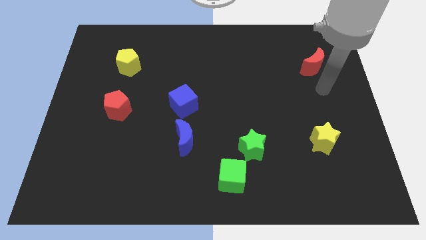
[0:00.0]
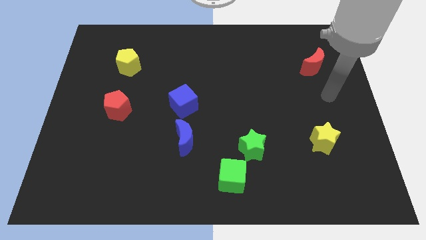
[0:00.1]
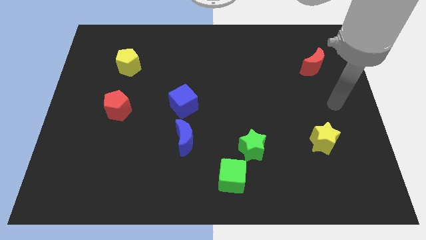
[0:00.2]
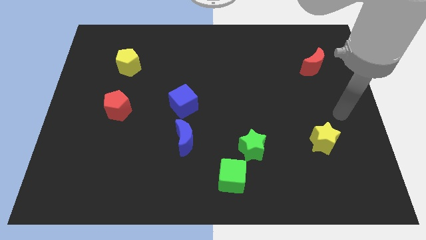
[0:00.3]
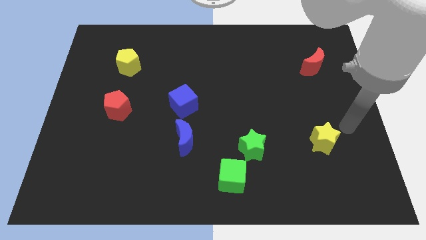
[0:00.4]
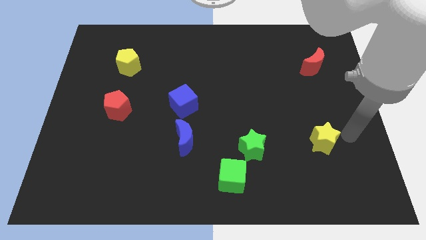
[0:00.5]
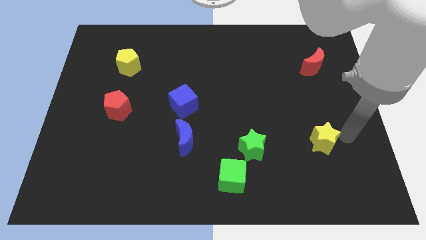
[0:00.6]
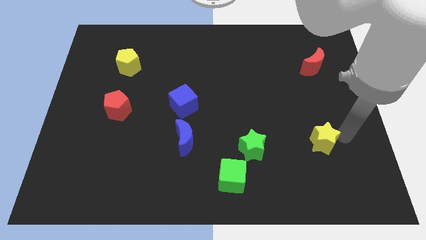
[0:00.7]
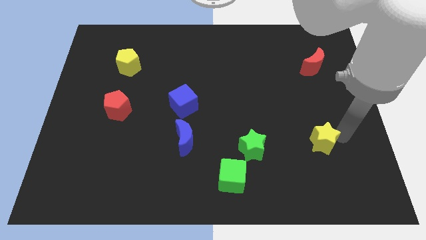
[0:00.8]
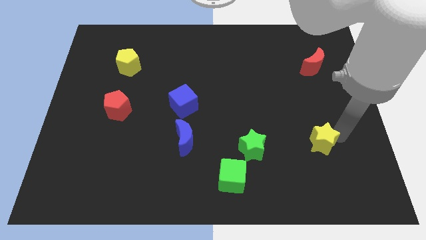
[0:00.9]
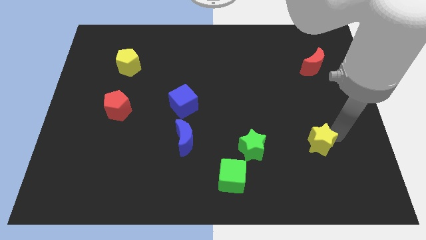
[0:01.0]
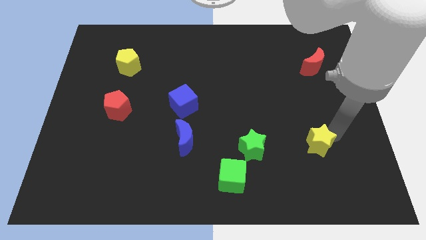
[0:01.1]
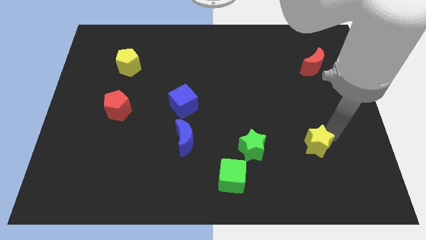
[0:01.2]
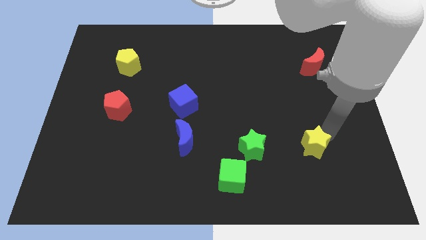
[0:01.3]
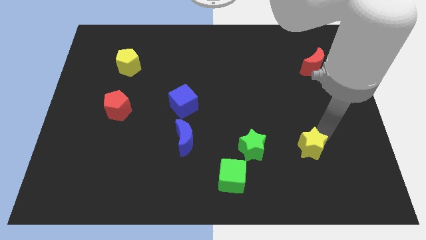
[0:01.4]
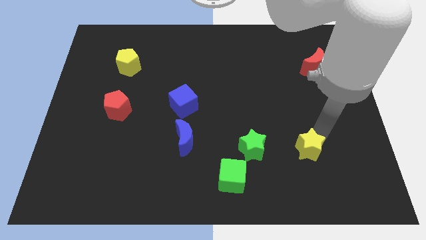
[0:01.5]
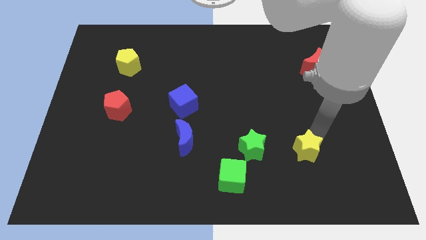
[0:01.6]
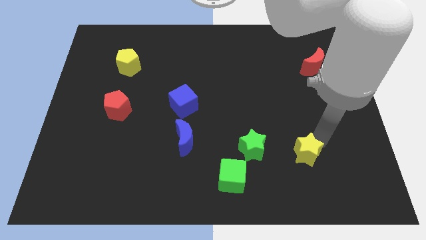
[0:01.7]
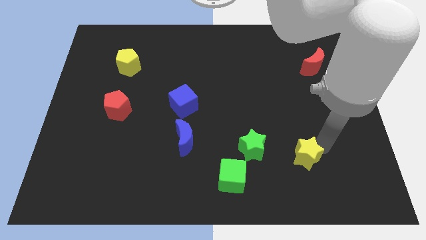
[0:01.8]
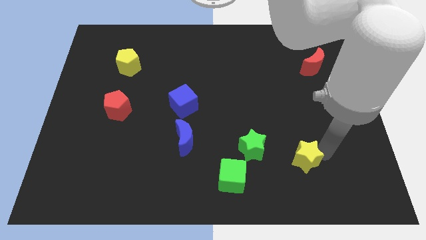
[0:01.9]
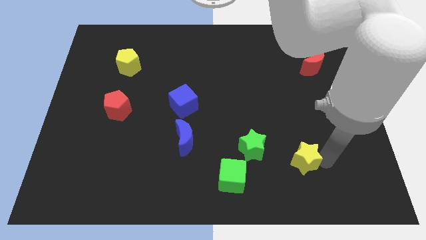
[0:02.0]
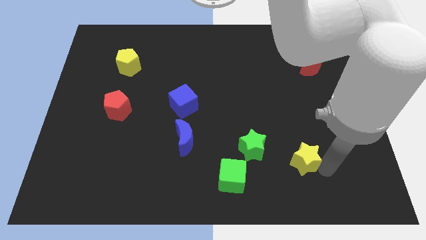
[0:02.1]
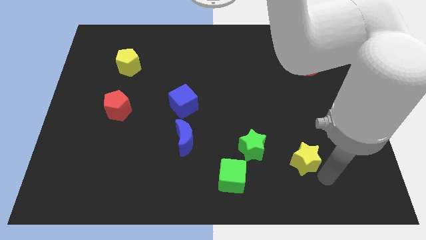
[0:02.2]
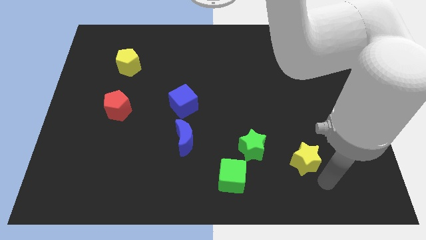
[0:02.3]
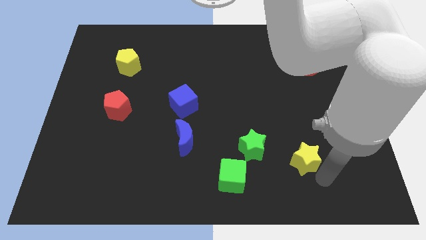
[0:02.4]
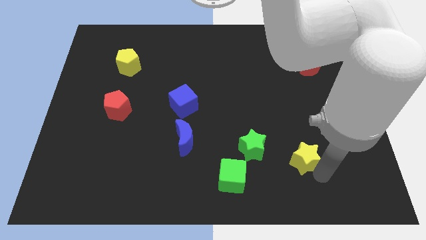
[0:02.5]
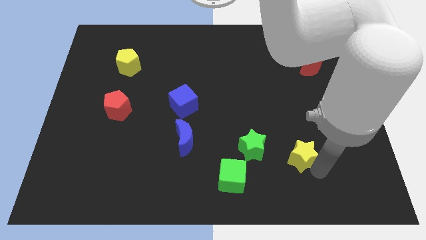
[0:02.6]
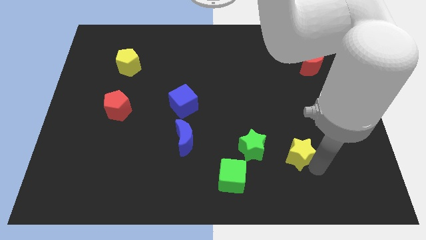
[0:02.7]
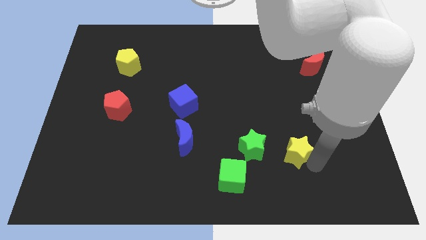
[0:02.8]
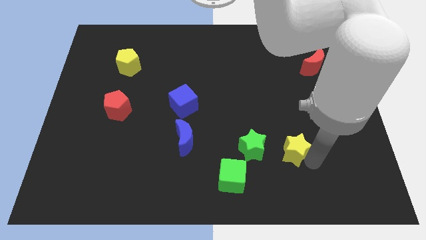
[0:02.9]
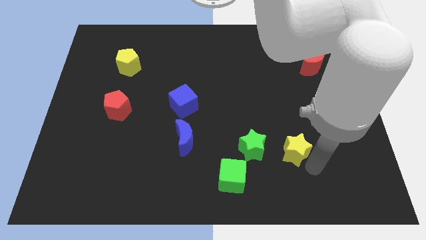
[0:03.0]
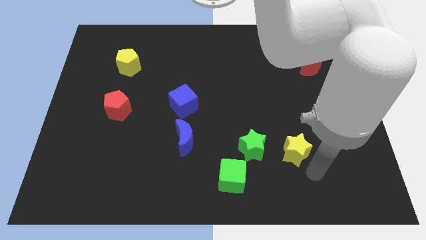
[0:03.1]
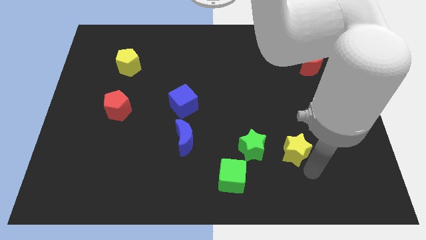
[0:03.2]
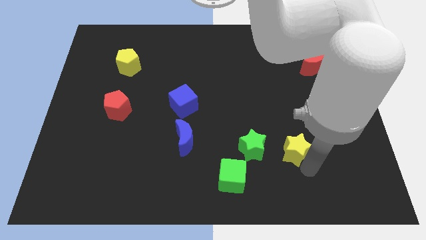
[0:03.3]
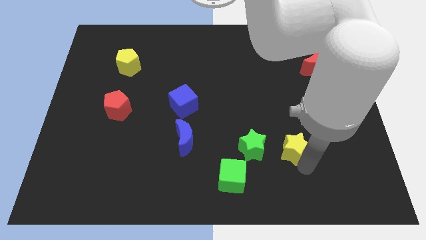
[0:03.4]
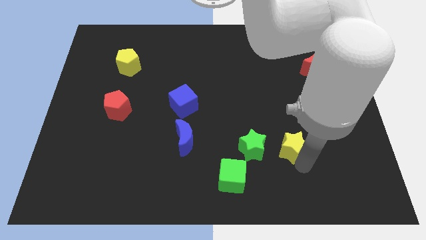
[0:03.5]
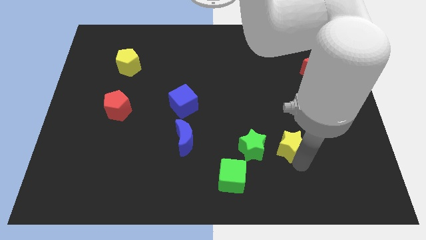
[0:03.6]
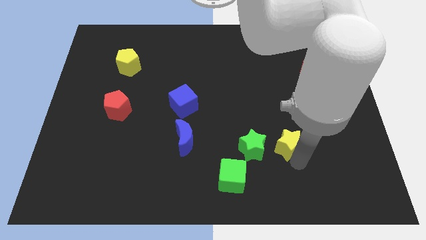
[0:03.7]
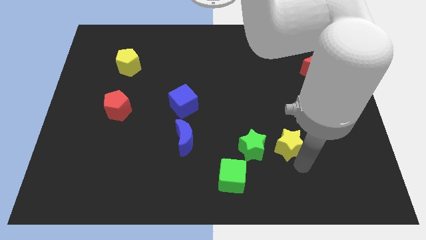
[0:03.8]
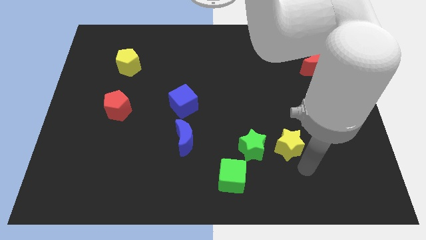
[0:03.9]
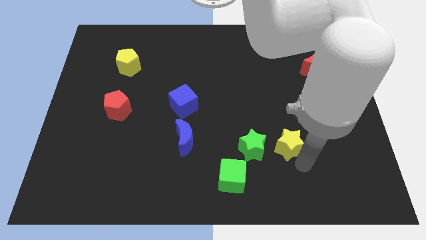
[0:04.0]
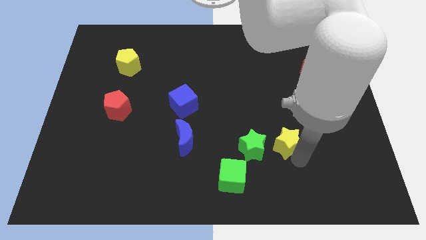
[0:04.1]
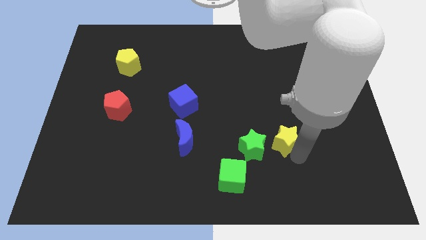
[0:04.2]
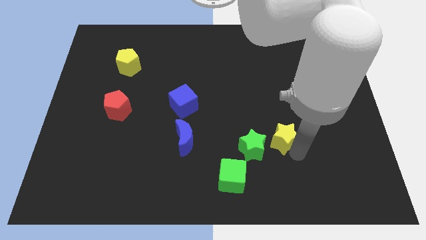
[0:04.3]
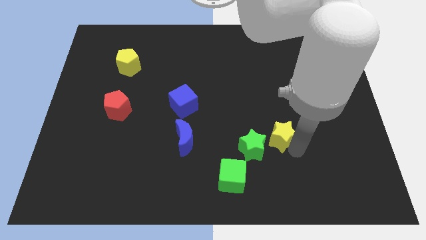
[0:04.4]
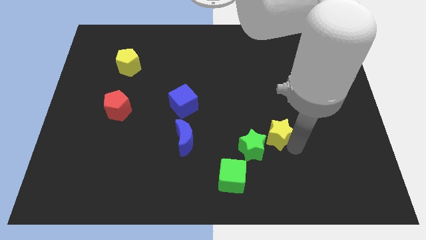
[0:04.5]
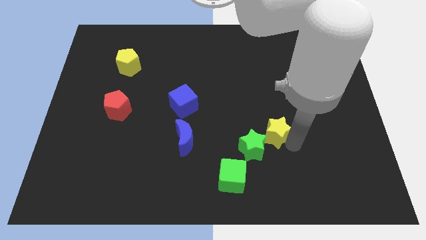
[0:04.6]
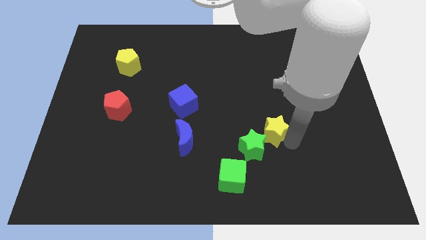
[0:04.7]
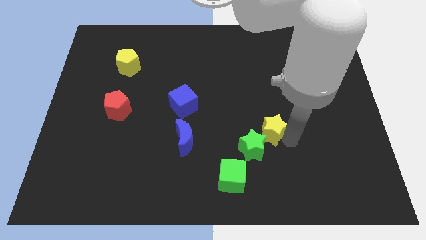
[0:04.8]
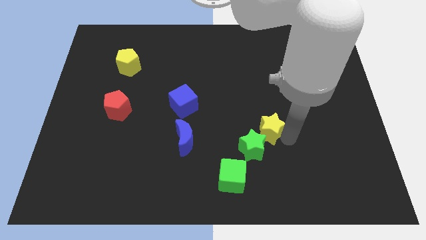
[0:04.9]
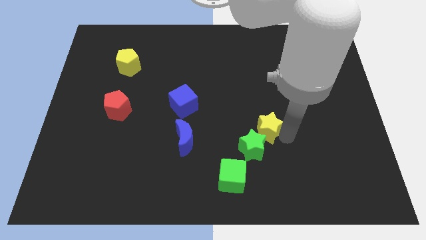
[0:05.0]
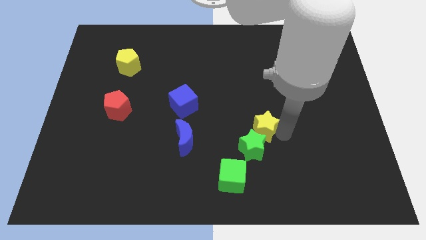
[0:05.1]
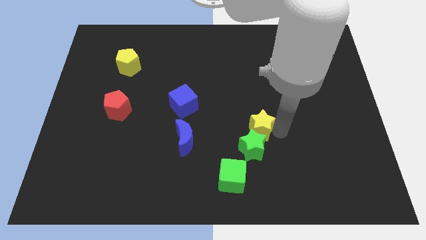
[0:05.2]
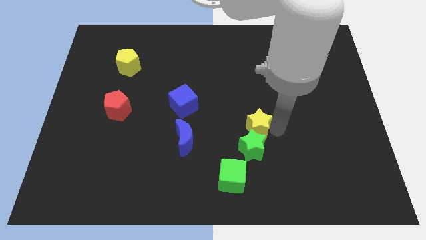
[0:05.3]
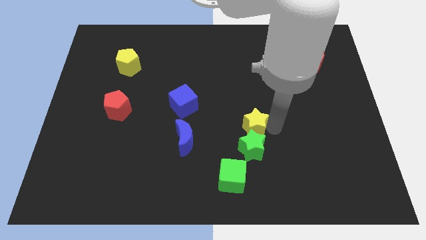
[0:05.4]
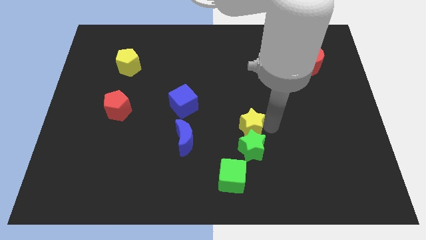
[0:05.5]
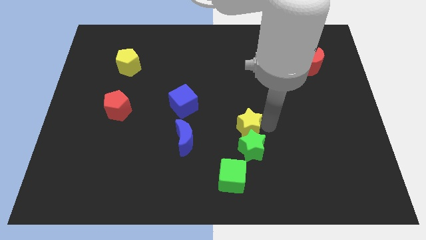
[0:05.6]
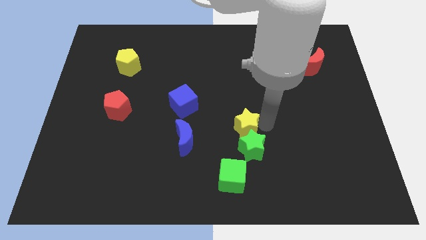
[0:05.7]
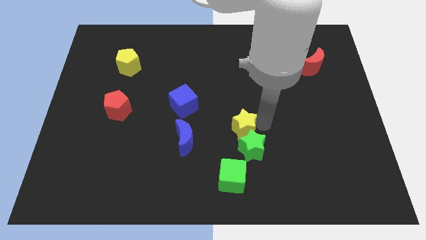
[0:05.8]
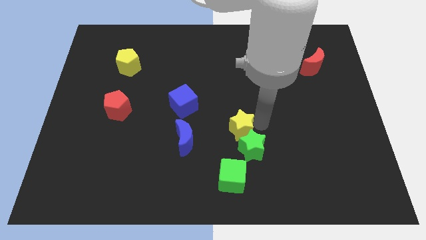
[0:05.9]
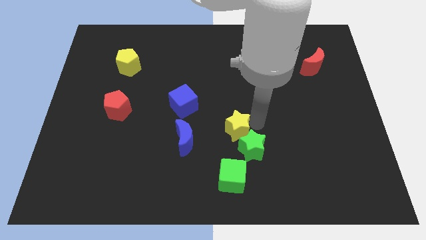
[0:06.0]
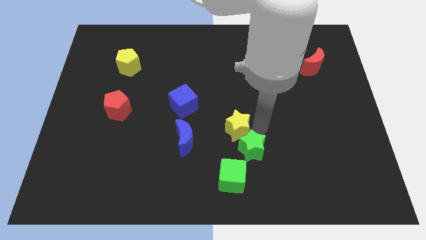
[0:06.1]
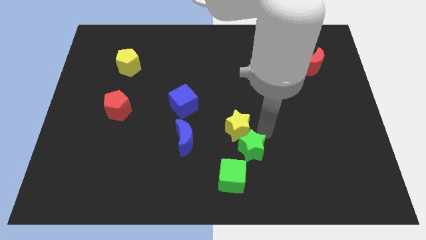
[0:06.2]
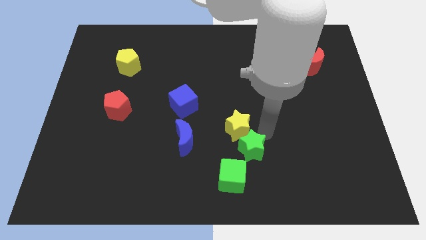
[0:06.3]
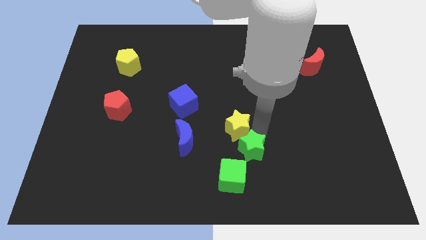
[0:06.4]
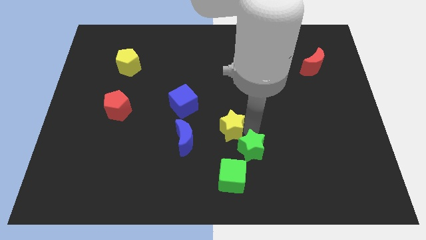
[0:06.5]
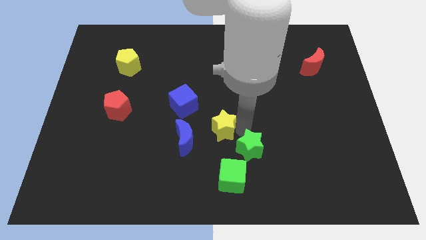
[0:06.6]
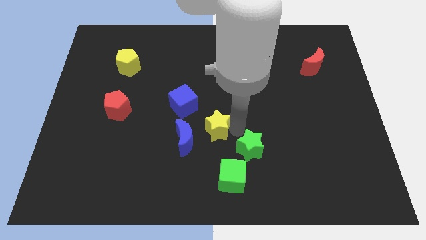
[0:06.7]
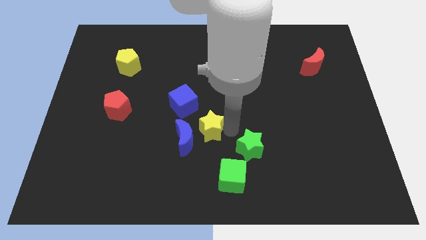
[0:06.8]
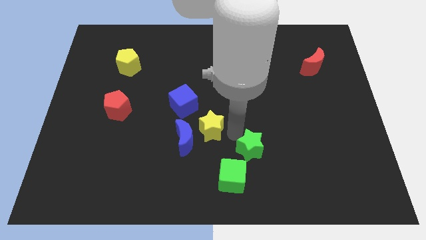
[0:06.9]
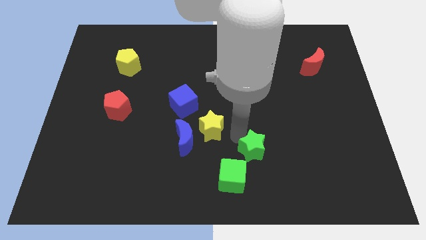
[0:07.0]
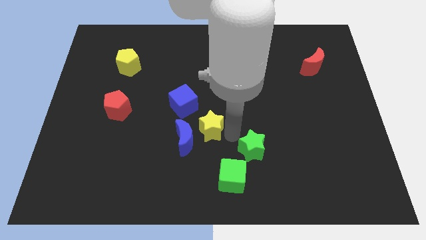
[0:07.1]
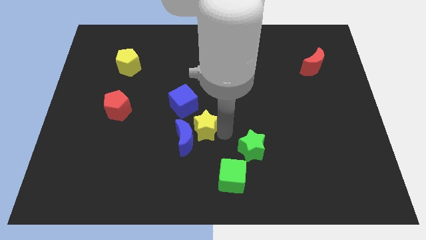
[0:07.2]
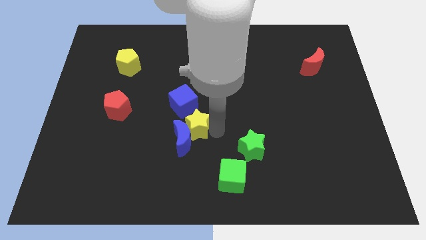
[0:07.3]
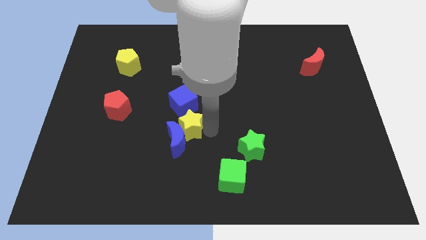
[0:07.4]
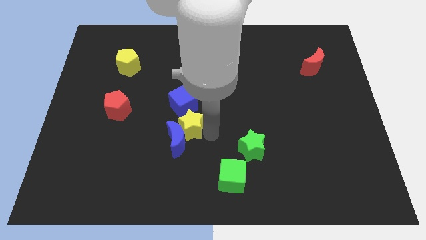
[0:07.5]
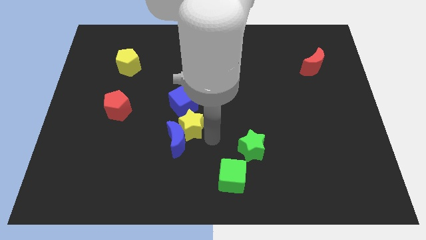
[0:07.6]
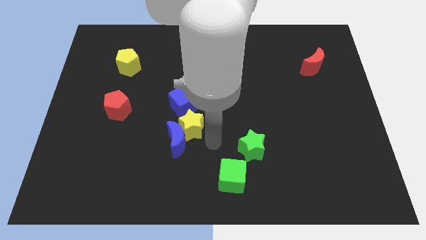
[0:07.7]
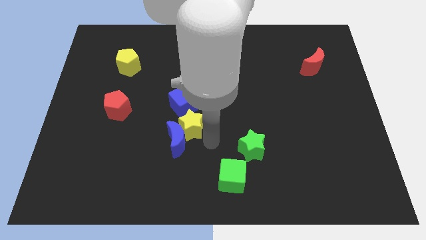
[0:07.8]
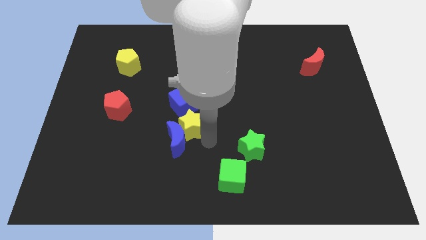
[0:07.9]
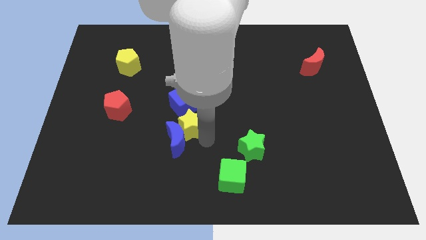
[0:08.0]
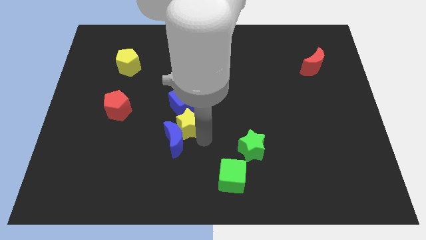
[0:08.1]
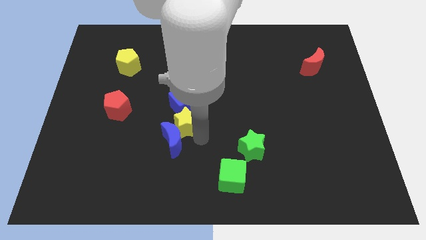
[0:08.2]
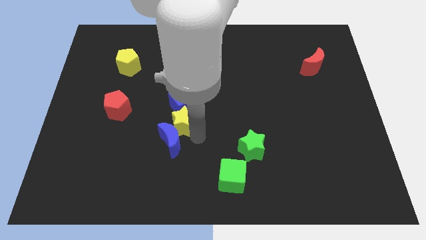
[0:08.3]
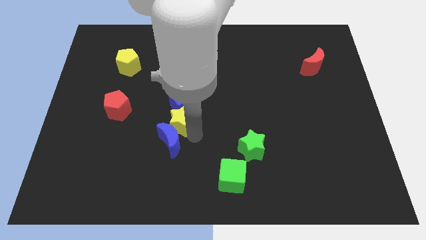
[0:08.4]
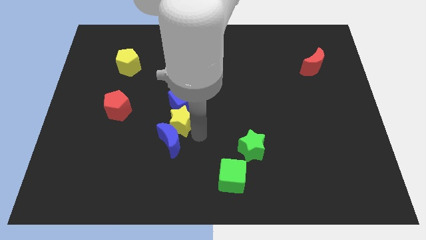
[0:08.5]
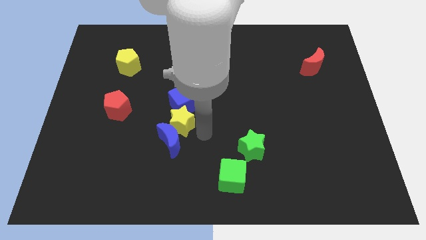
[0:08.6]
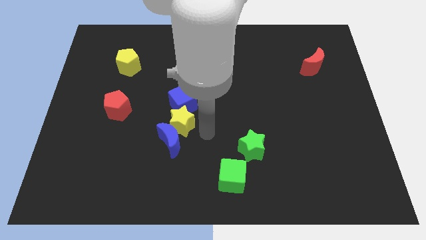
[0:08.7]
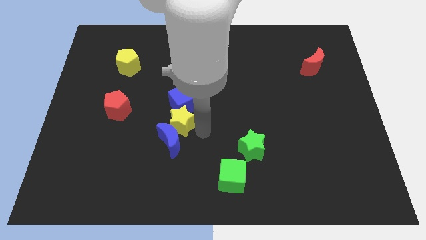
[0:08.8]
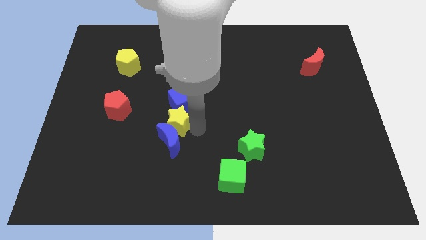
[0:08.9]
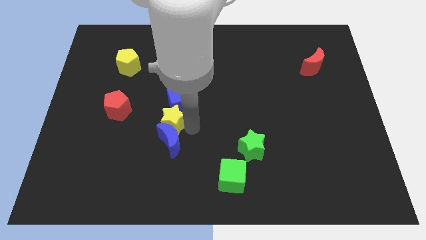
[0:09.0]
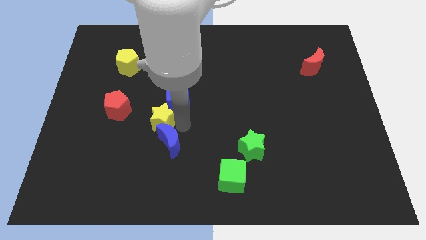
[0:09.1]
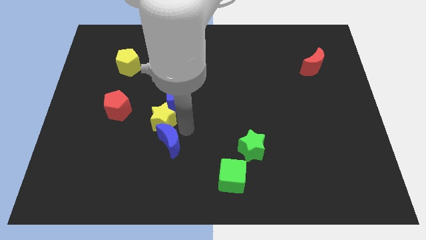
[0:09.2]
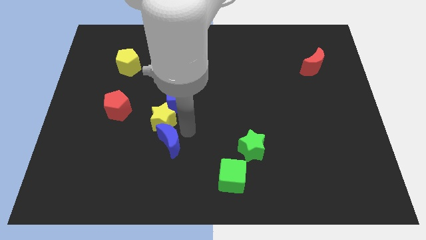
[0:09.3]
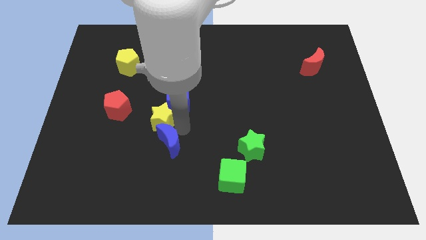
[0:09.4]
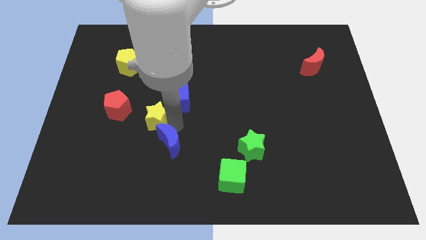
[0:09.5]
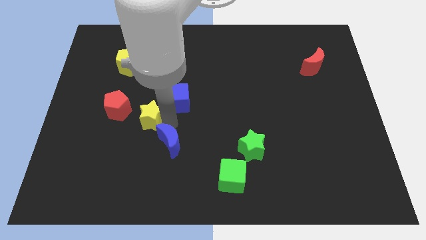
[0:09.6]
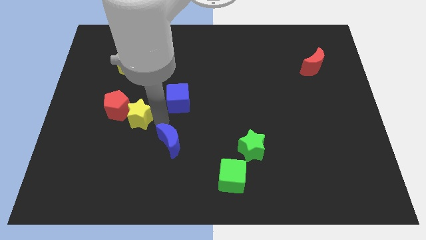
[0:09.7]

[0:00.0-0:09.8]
push the yellow star close to the red pentagon
